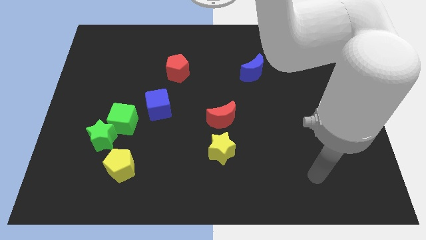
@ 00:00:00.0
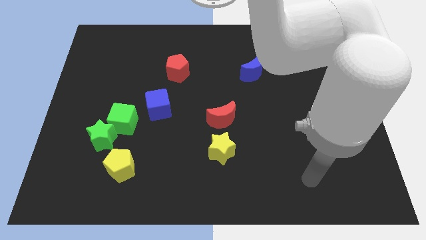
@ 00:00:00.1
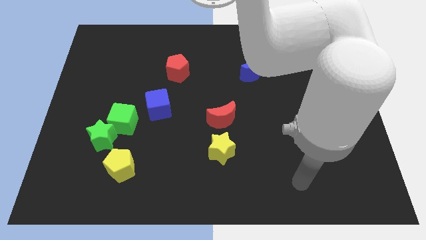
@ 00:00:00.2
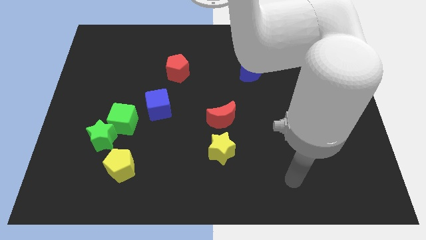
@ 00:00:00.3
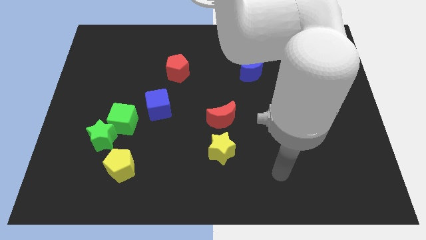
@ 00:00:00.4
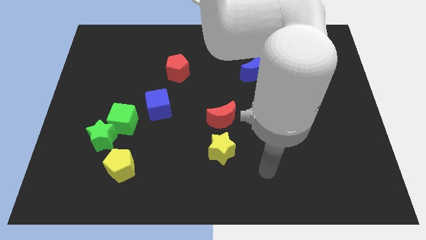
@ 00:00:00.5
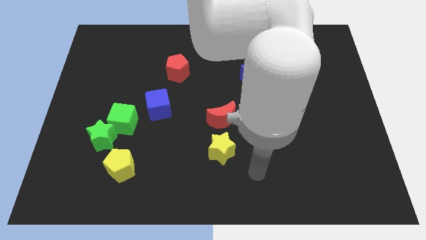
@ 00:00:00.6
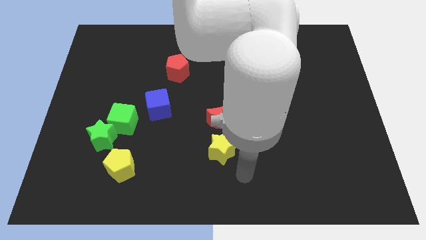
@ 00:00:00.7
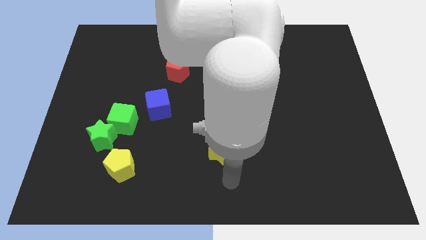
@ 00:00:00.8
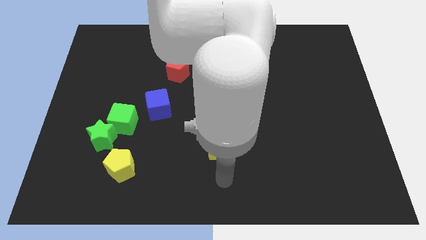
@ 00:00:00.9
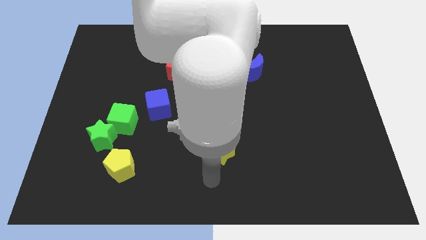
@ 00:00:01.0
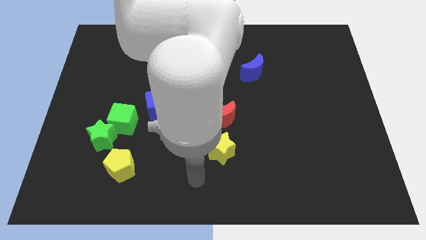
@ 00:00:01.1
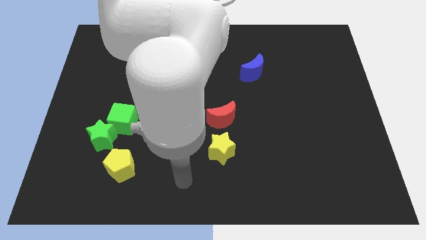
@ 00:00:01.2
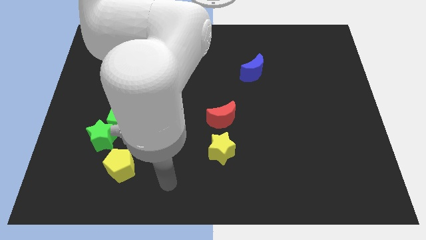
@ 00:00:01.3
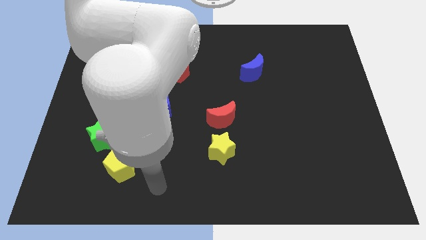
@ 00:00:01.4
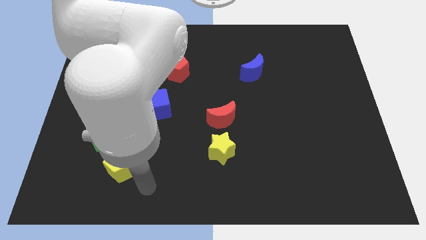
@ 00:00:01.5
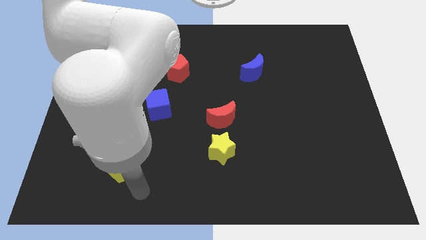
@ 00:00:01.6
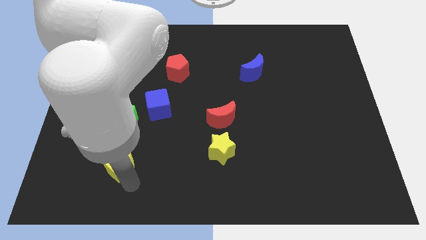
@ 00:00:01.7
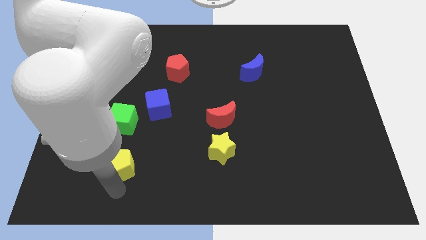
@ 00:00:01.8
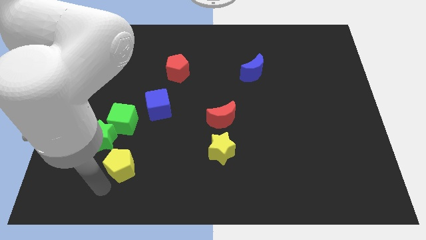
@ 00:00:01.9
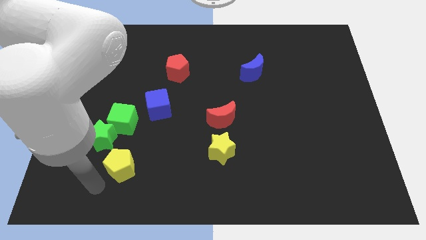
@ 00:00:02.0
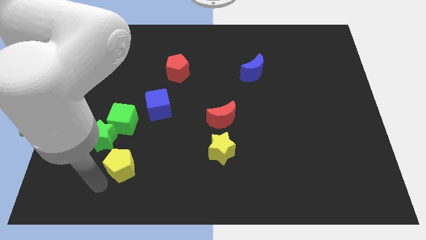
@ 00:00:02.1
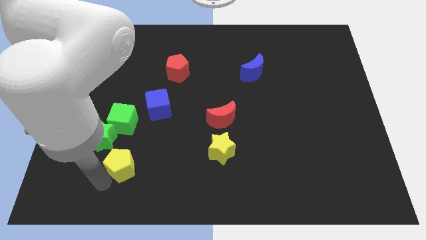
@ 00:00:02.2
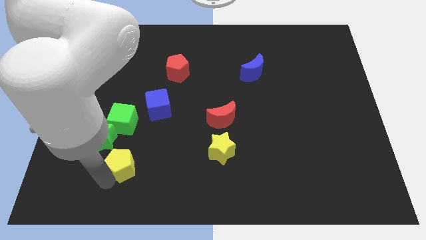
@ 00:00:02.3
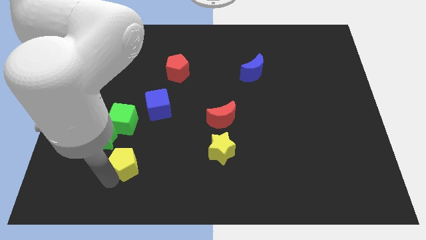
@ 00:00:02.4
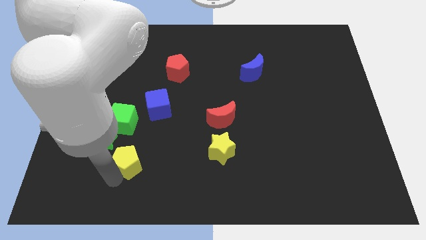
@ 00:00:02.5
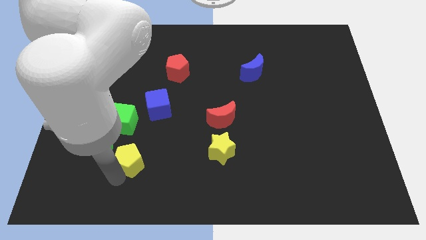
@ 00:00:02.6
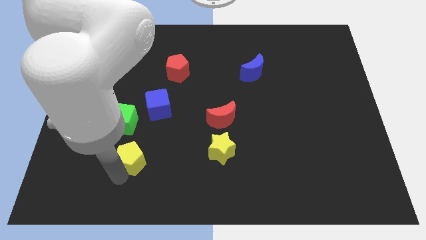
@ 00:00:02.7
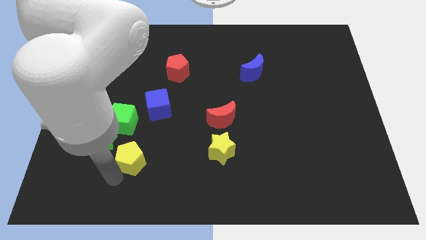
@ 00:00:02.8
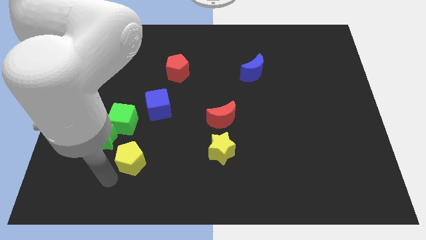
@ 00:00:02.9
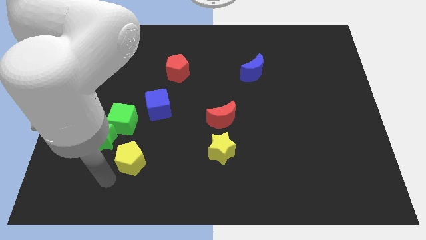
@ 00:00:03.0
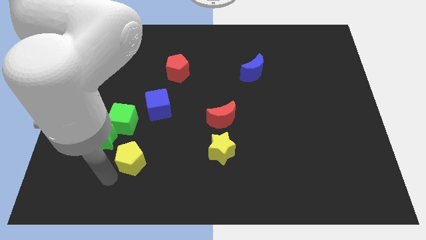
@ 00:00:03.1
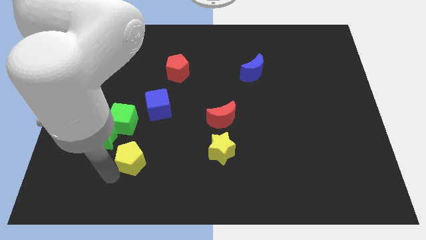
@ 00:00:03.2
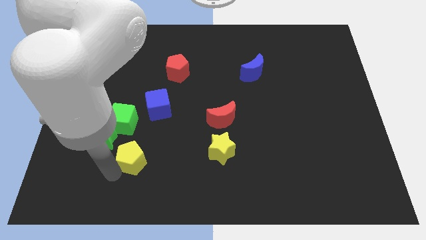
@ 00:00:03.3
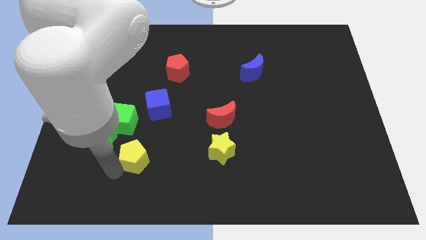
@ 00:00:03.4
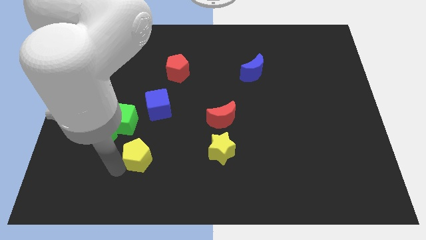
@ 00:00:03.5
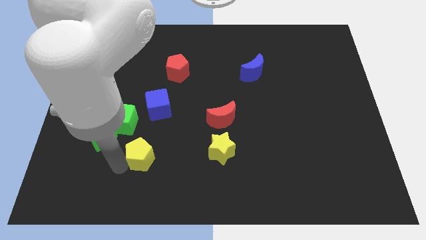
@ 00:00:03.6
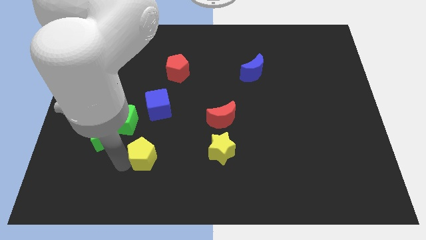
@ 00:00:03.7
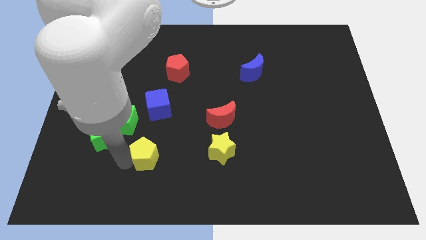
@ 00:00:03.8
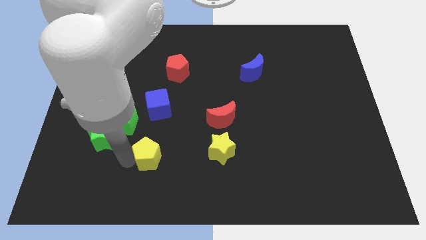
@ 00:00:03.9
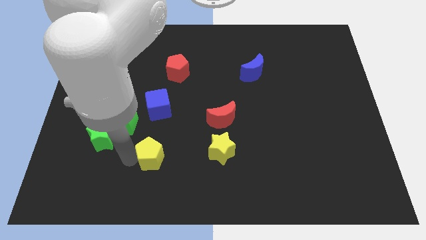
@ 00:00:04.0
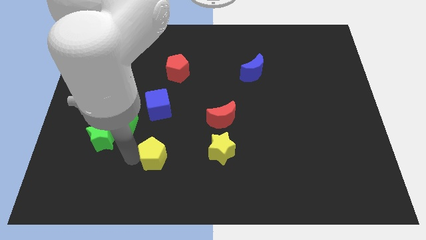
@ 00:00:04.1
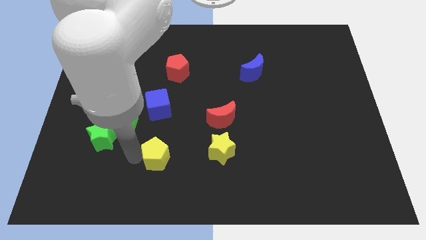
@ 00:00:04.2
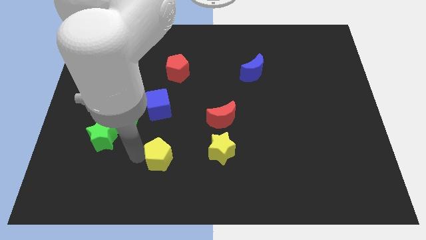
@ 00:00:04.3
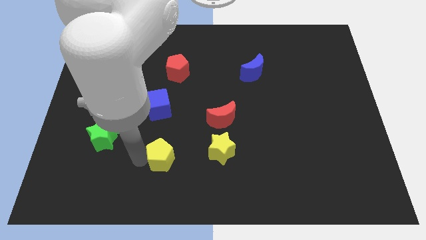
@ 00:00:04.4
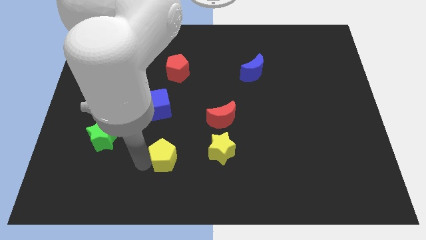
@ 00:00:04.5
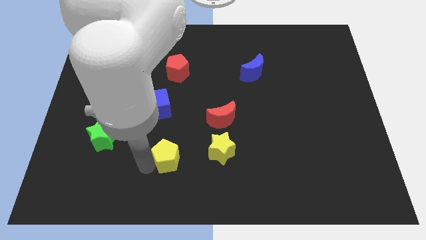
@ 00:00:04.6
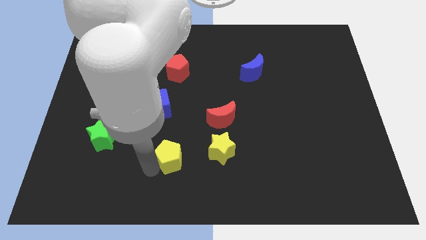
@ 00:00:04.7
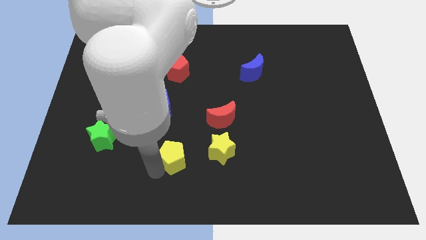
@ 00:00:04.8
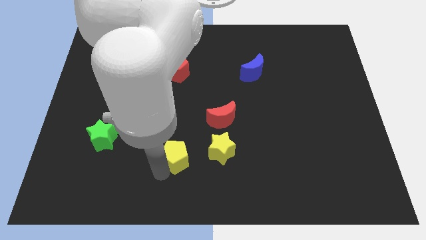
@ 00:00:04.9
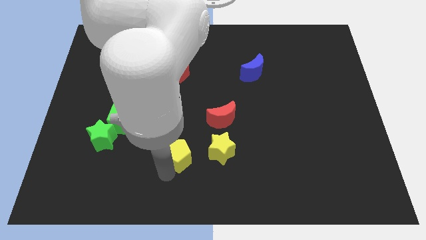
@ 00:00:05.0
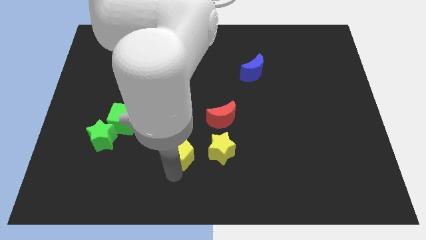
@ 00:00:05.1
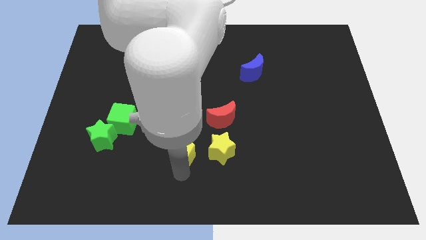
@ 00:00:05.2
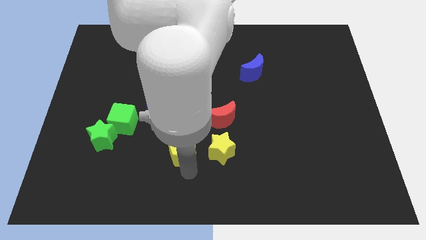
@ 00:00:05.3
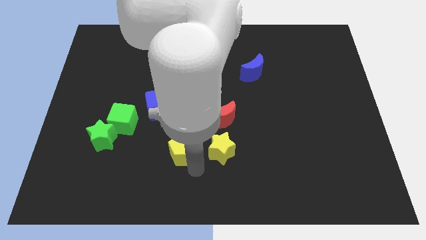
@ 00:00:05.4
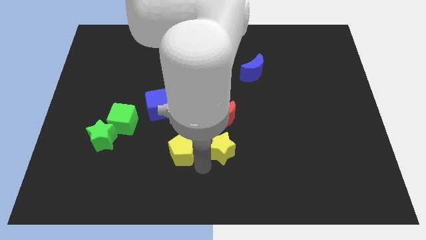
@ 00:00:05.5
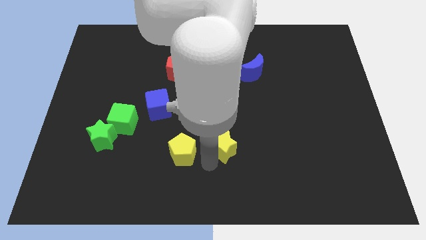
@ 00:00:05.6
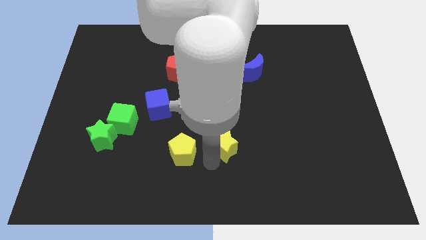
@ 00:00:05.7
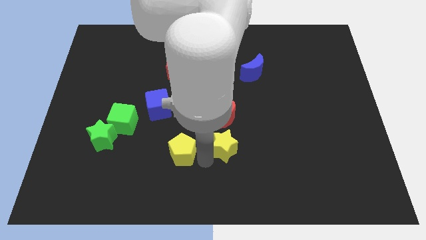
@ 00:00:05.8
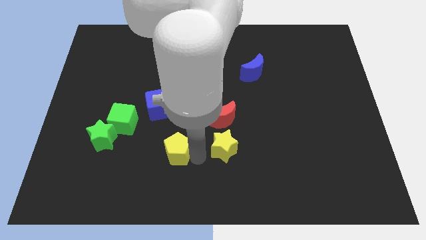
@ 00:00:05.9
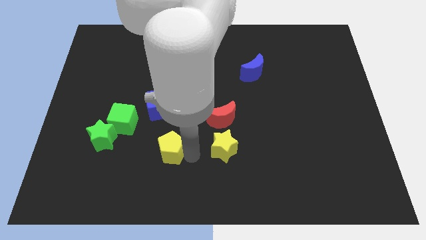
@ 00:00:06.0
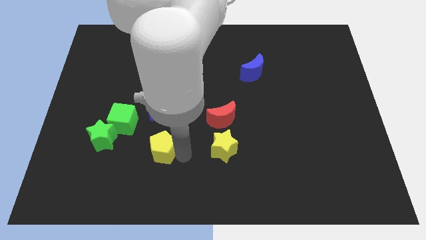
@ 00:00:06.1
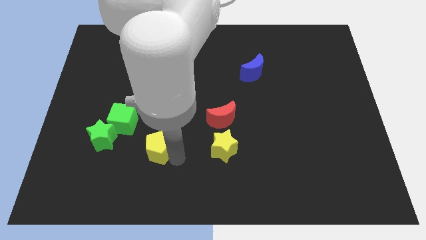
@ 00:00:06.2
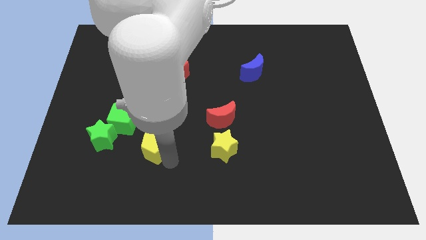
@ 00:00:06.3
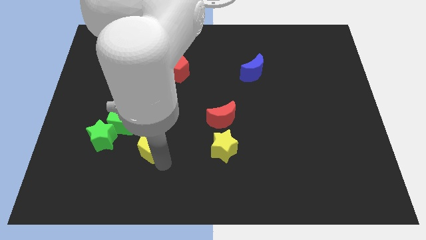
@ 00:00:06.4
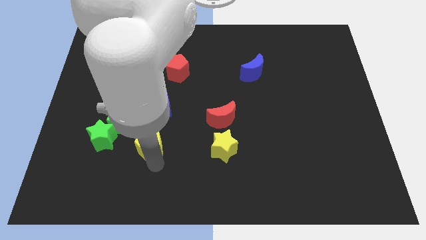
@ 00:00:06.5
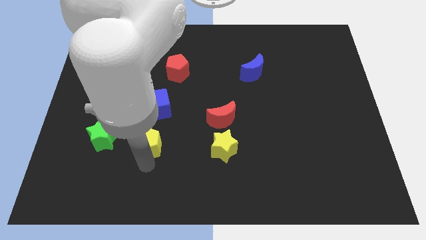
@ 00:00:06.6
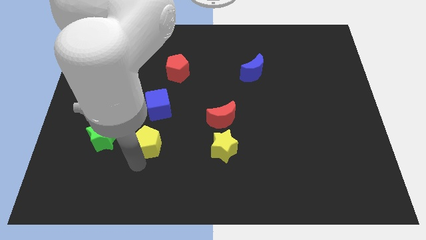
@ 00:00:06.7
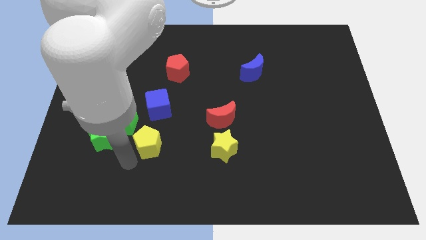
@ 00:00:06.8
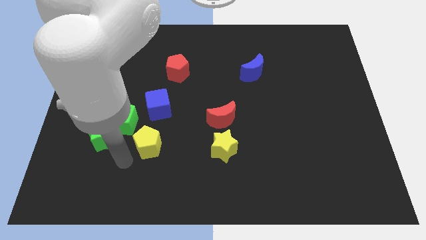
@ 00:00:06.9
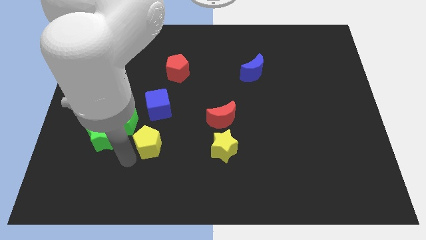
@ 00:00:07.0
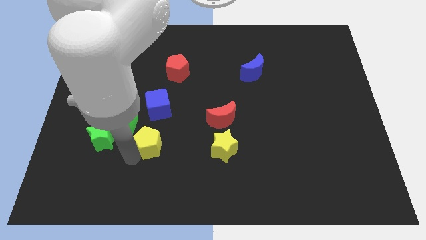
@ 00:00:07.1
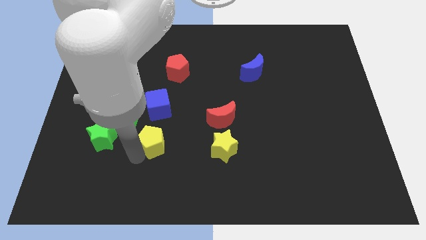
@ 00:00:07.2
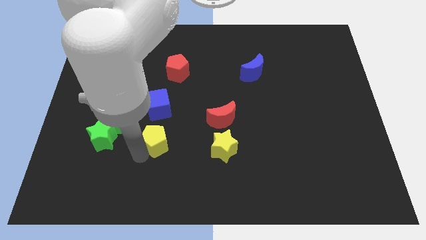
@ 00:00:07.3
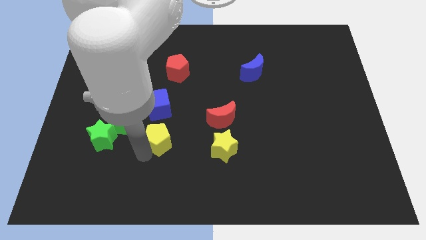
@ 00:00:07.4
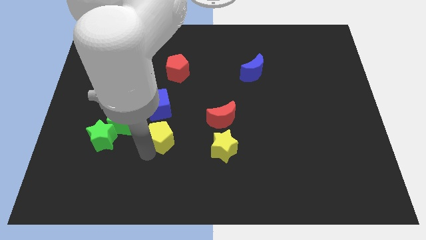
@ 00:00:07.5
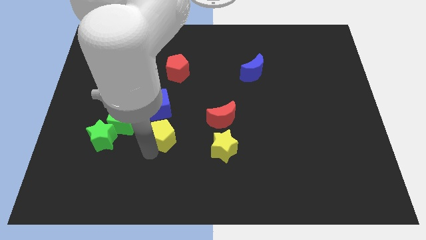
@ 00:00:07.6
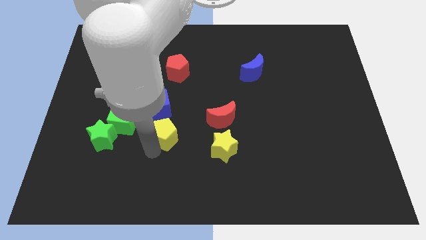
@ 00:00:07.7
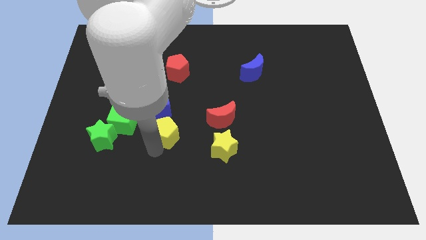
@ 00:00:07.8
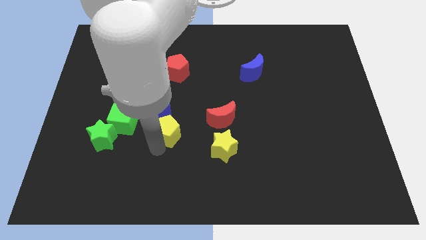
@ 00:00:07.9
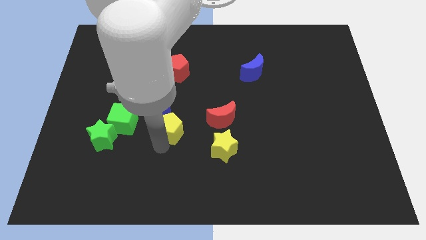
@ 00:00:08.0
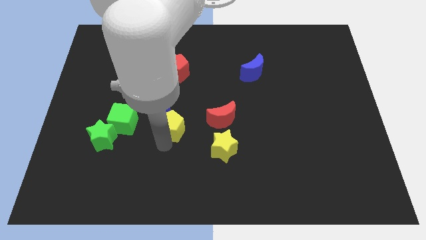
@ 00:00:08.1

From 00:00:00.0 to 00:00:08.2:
move the yellow pentagon to the middle of the board
